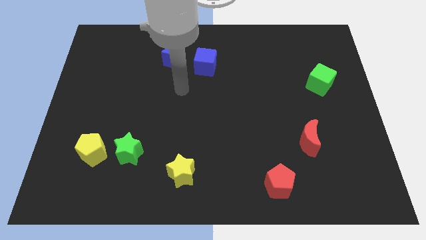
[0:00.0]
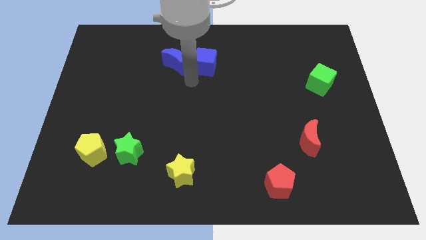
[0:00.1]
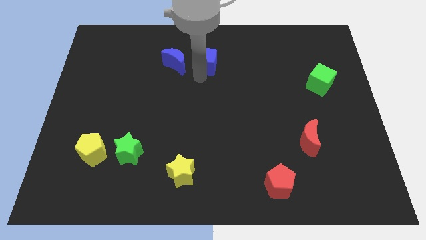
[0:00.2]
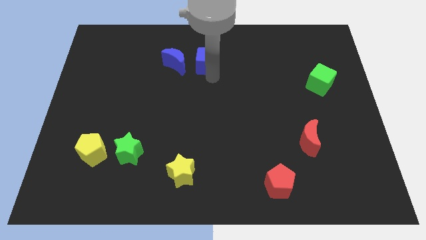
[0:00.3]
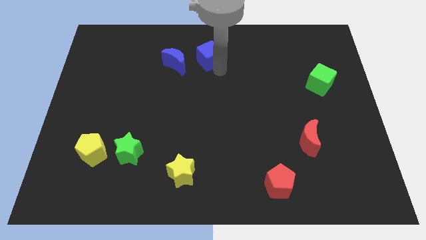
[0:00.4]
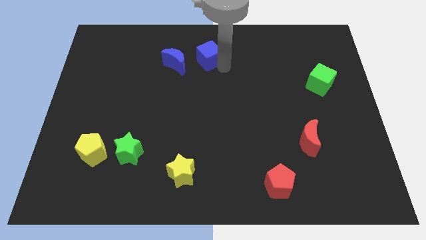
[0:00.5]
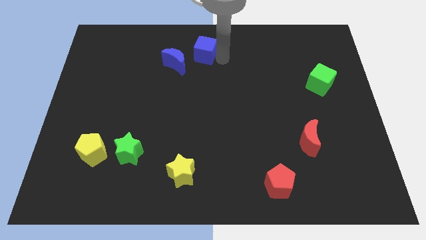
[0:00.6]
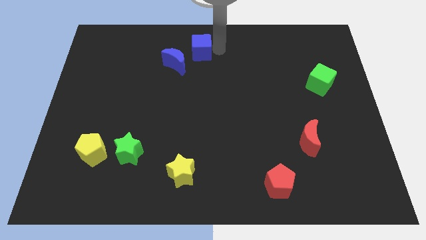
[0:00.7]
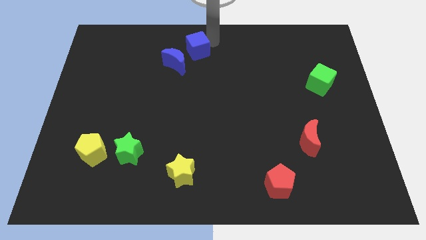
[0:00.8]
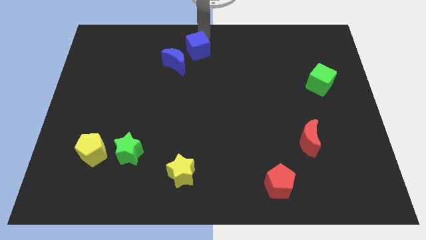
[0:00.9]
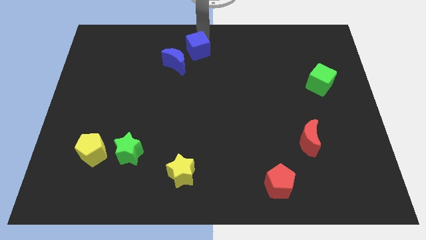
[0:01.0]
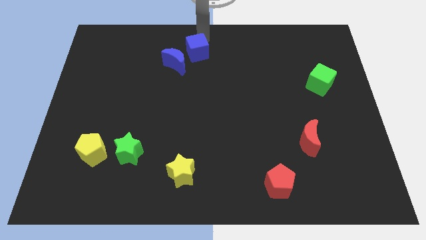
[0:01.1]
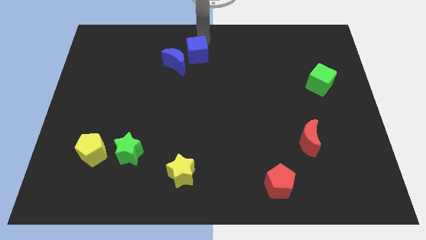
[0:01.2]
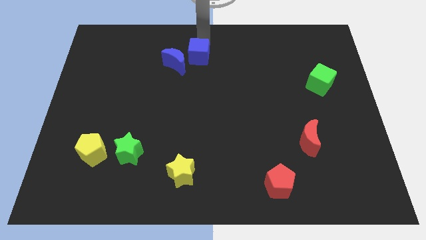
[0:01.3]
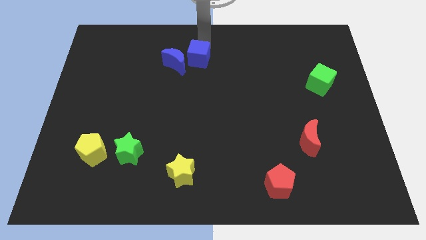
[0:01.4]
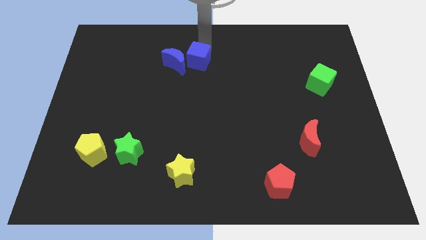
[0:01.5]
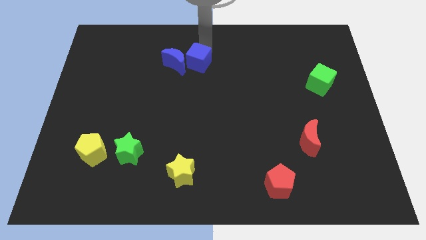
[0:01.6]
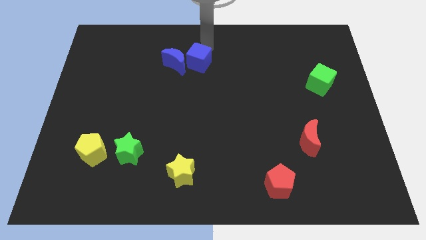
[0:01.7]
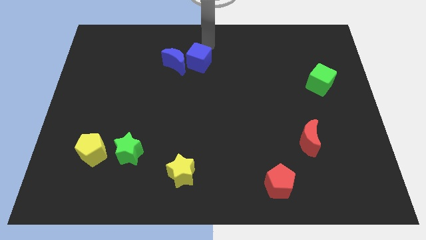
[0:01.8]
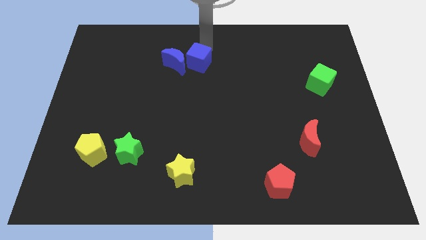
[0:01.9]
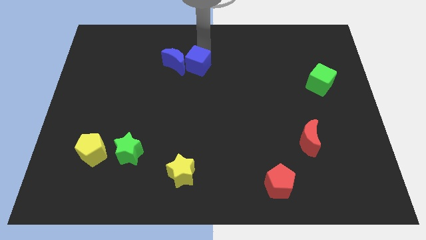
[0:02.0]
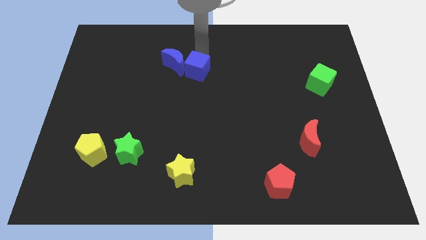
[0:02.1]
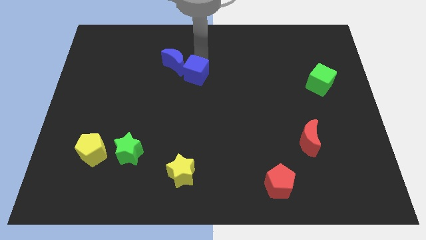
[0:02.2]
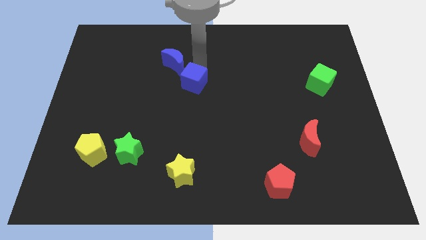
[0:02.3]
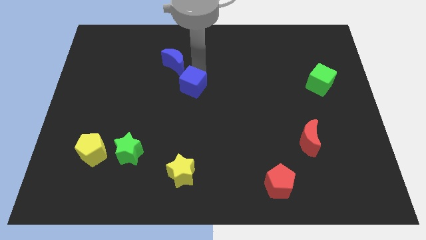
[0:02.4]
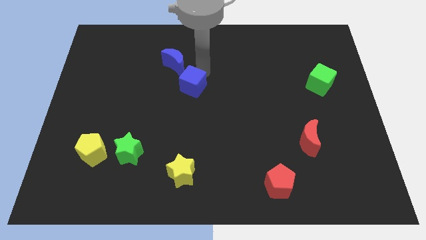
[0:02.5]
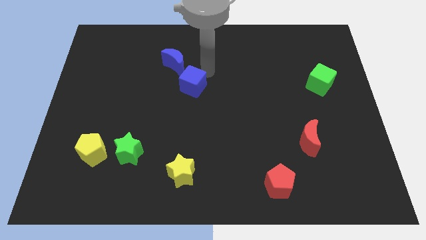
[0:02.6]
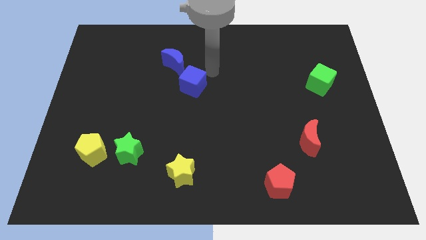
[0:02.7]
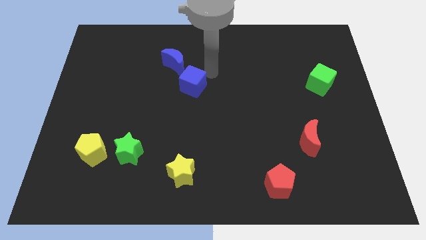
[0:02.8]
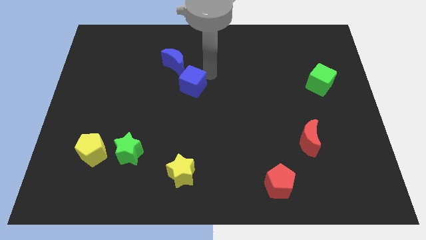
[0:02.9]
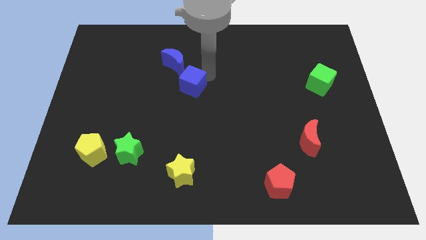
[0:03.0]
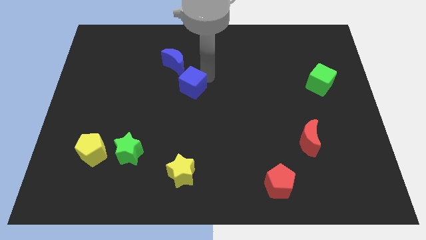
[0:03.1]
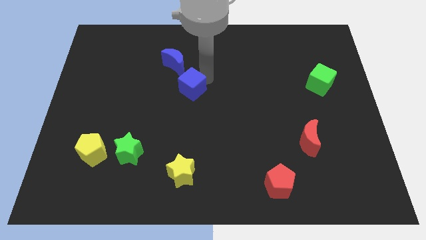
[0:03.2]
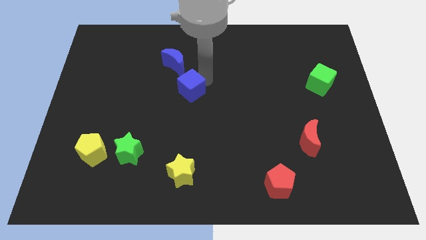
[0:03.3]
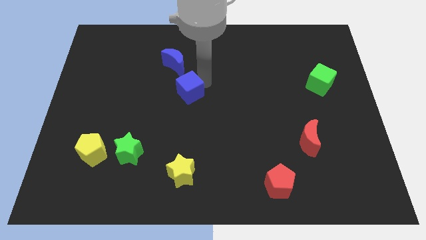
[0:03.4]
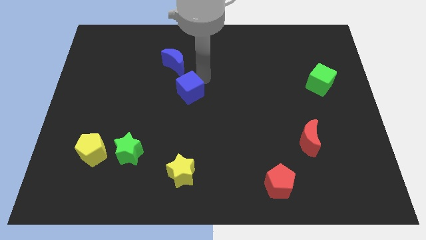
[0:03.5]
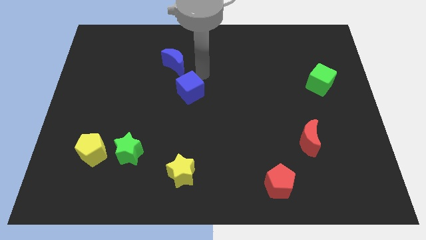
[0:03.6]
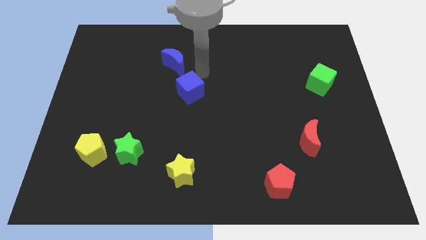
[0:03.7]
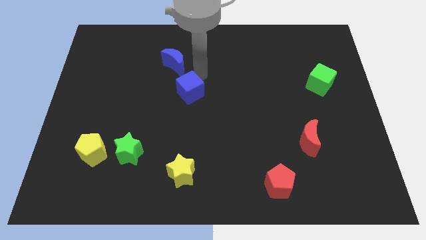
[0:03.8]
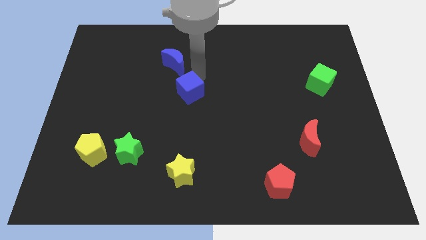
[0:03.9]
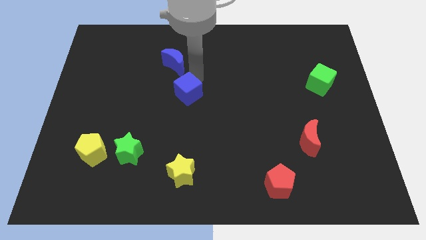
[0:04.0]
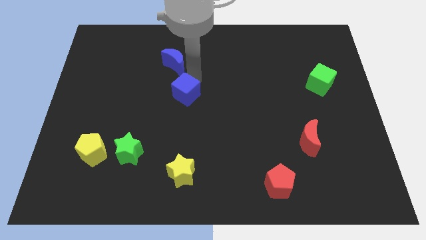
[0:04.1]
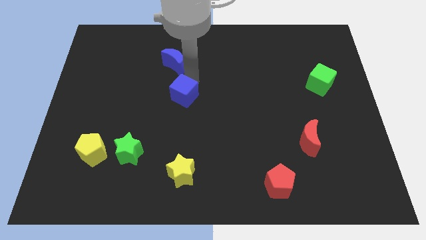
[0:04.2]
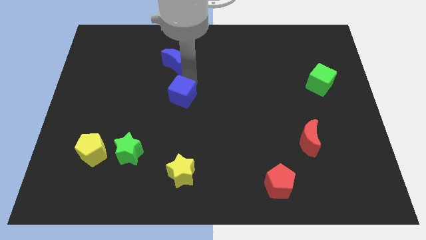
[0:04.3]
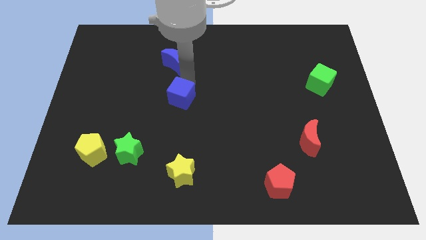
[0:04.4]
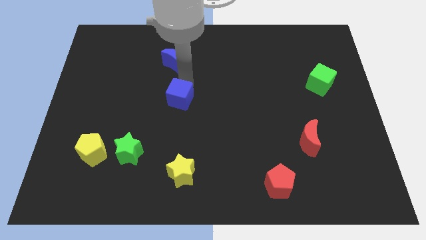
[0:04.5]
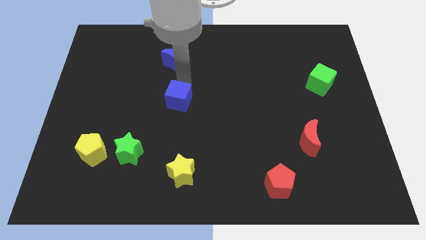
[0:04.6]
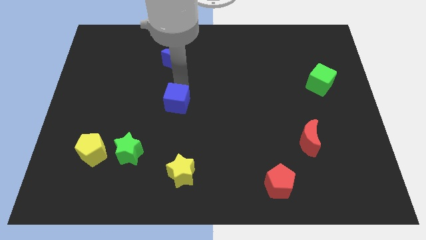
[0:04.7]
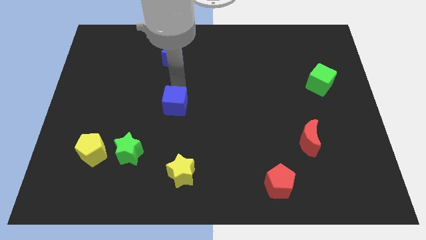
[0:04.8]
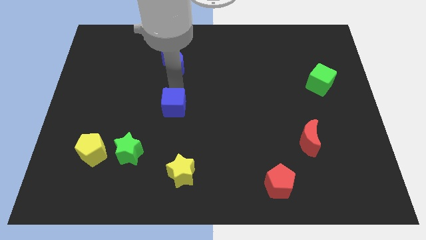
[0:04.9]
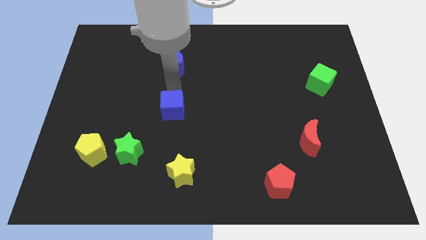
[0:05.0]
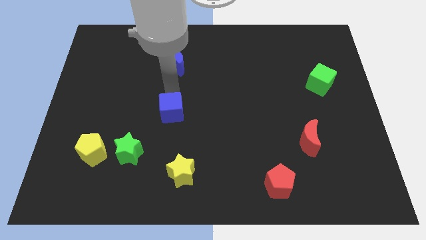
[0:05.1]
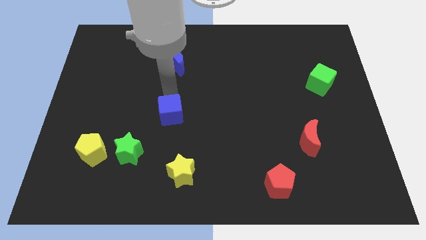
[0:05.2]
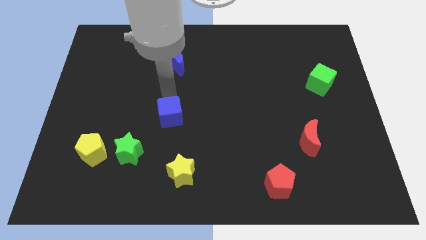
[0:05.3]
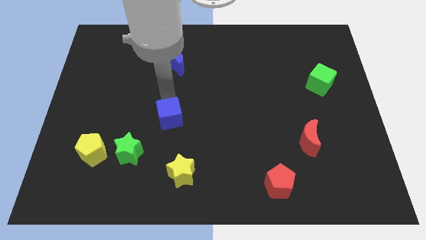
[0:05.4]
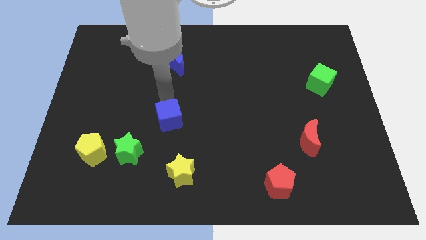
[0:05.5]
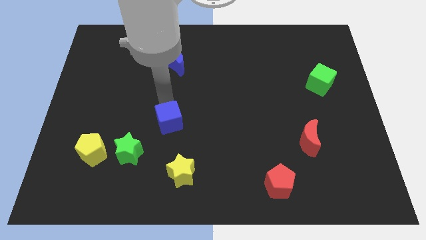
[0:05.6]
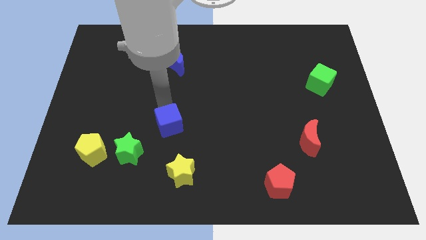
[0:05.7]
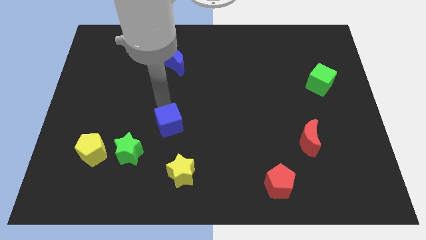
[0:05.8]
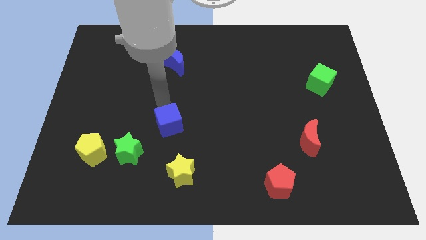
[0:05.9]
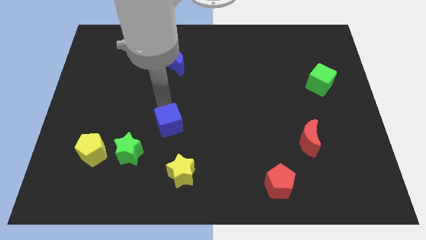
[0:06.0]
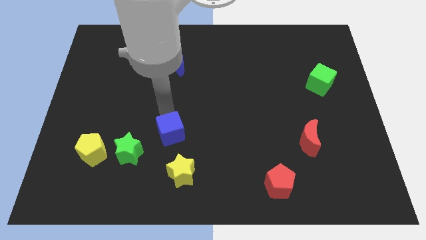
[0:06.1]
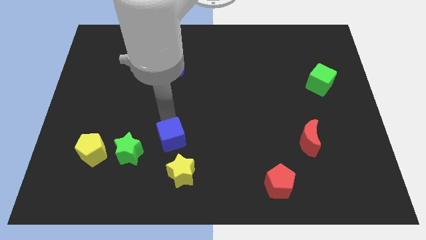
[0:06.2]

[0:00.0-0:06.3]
put the blue cube to the right side of the green star
